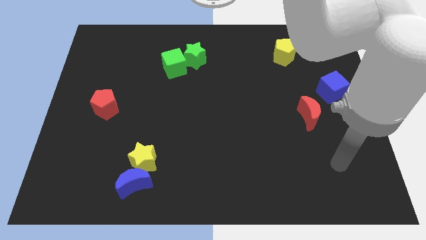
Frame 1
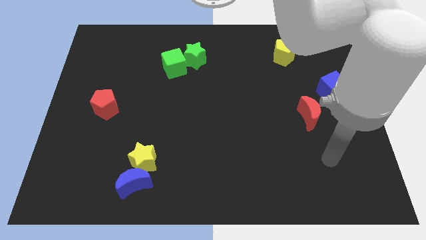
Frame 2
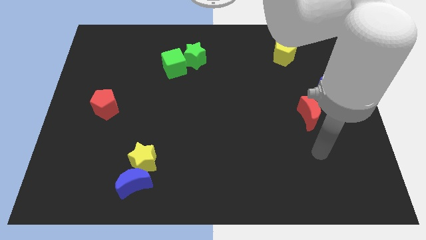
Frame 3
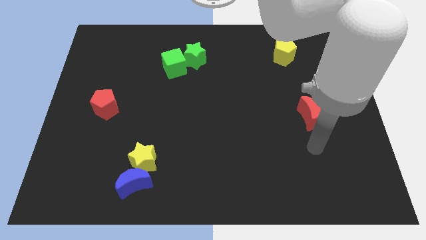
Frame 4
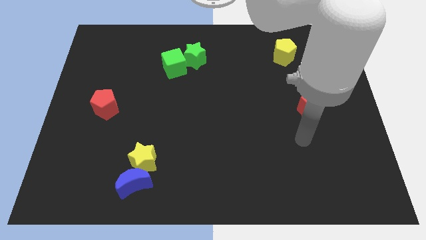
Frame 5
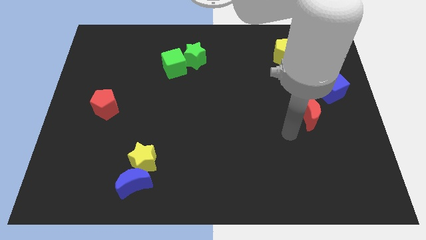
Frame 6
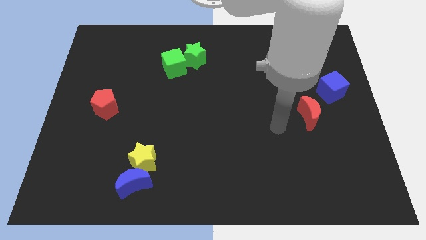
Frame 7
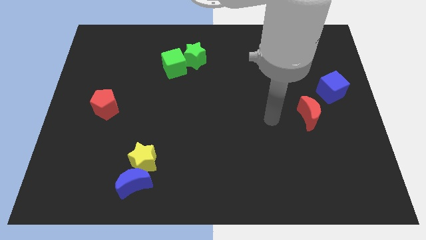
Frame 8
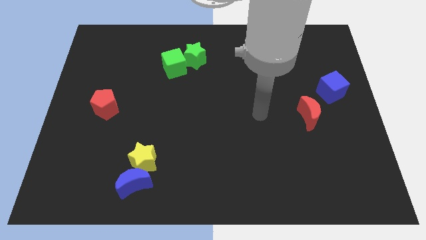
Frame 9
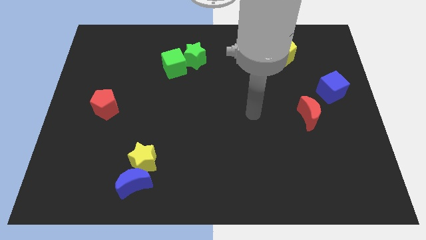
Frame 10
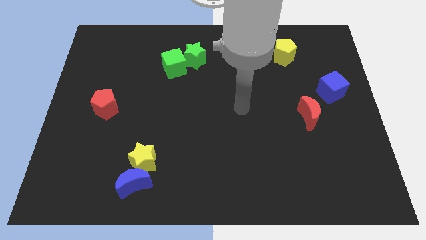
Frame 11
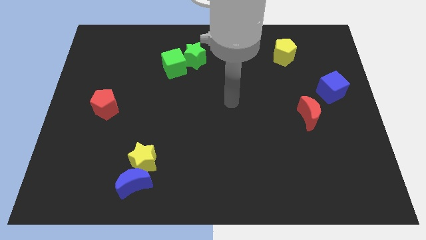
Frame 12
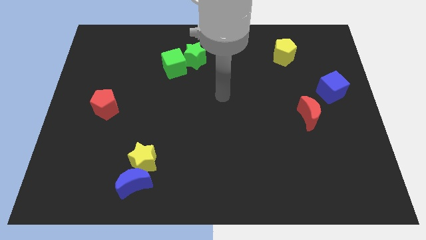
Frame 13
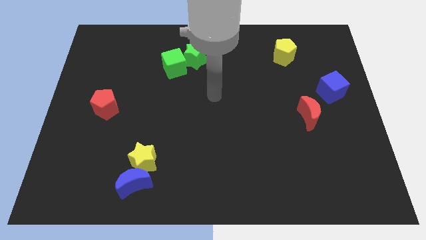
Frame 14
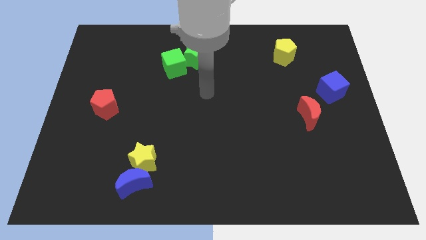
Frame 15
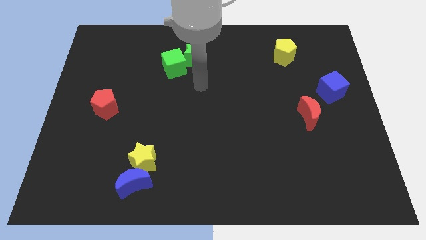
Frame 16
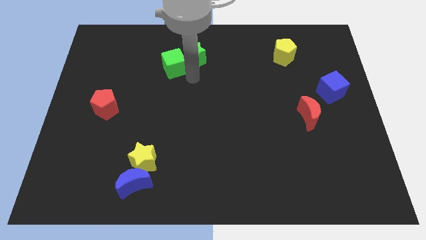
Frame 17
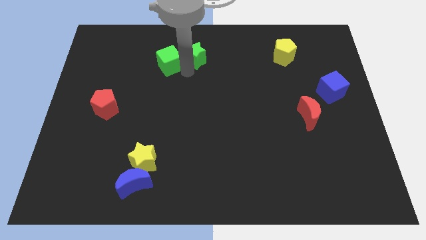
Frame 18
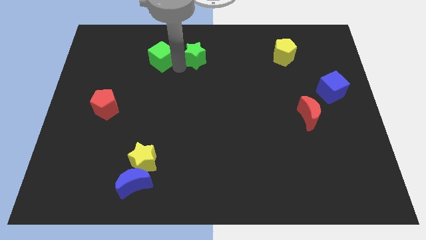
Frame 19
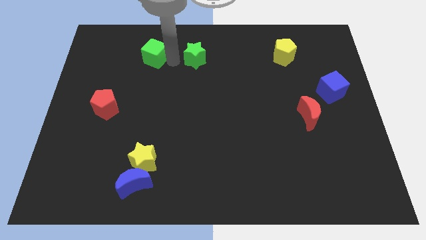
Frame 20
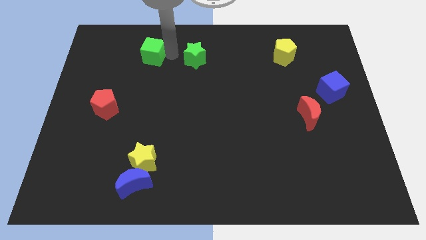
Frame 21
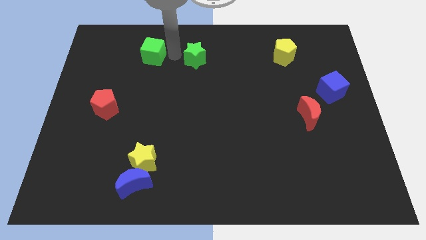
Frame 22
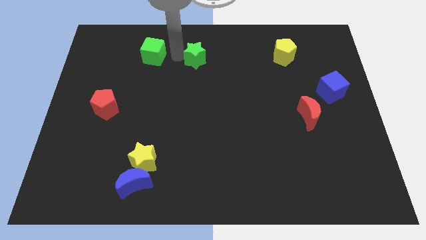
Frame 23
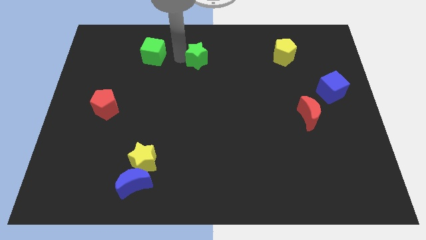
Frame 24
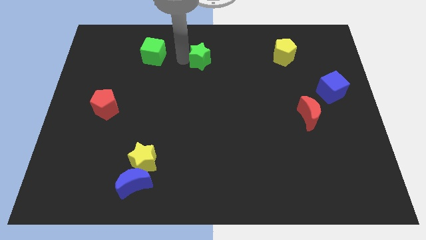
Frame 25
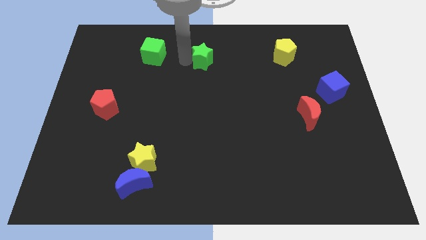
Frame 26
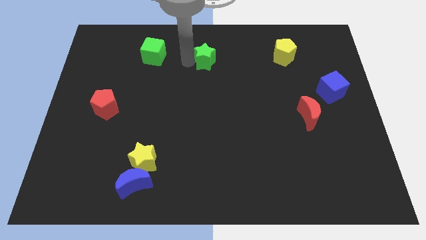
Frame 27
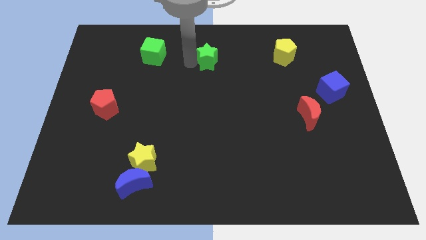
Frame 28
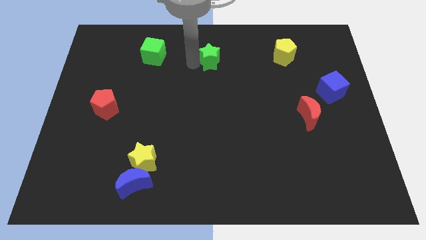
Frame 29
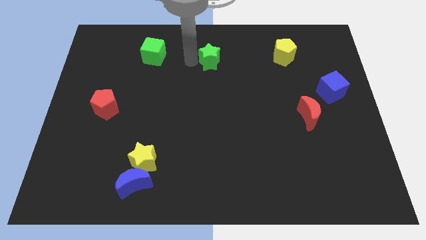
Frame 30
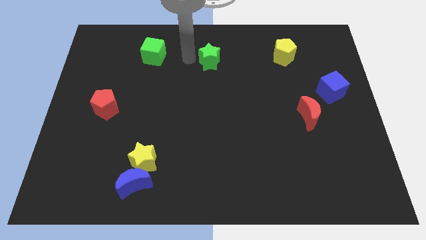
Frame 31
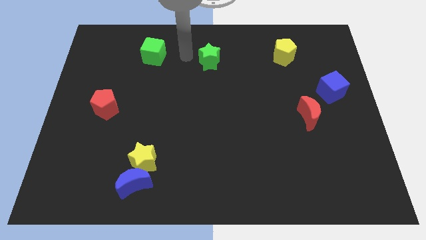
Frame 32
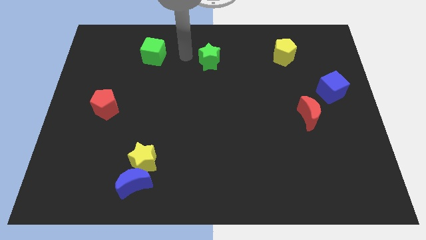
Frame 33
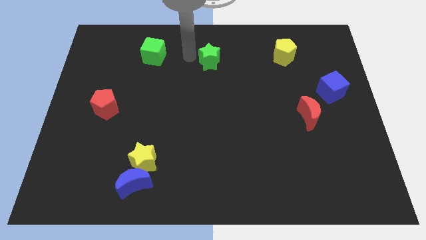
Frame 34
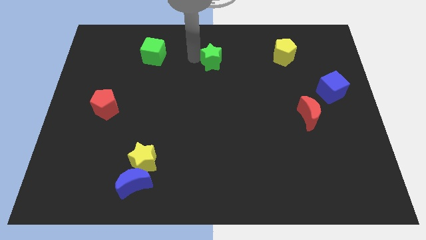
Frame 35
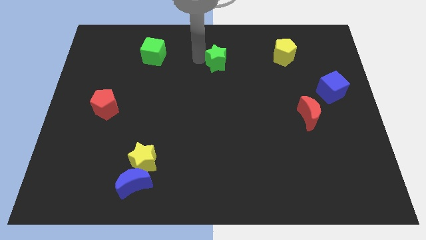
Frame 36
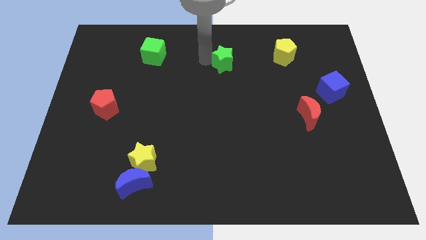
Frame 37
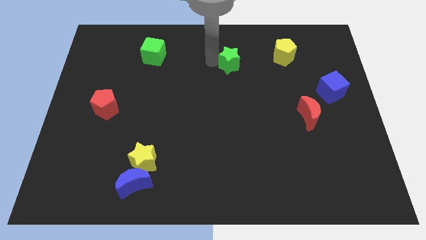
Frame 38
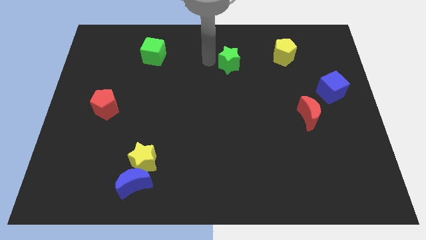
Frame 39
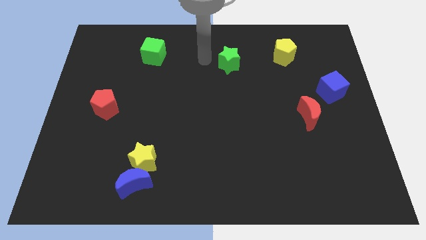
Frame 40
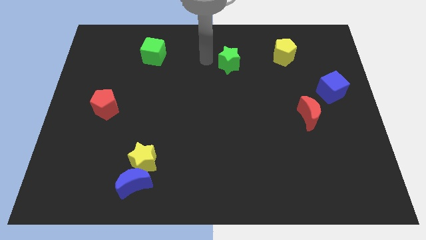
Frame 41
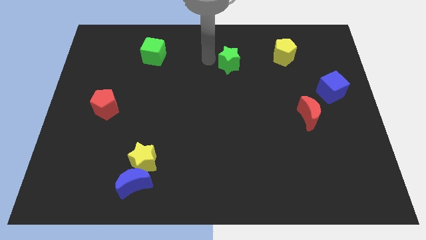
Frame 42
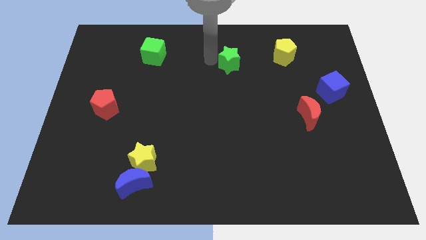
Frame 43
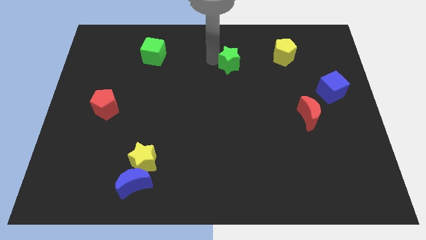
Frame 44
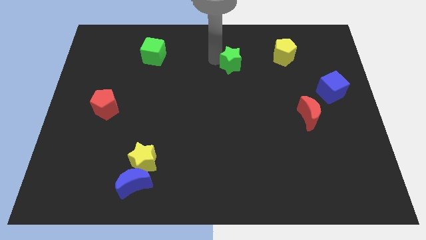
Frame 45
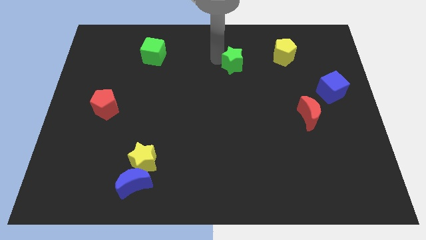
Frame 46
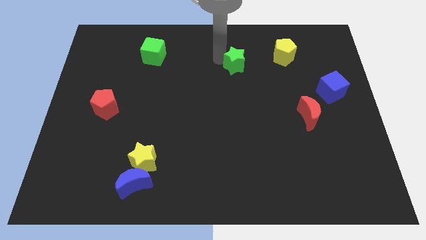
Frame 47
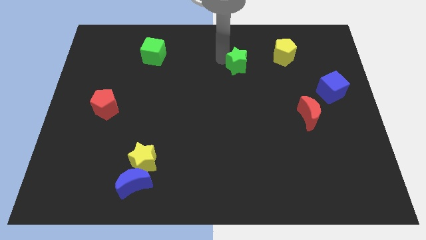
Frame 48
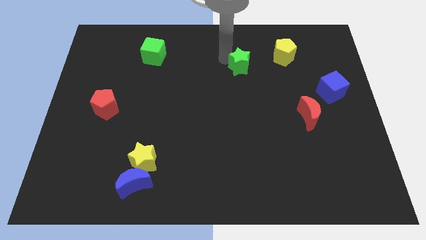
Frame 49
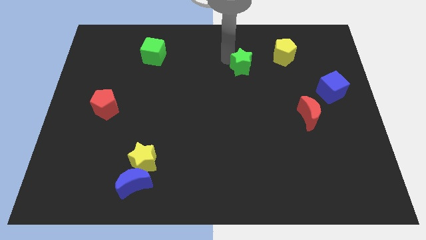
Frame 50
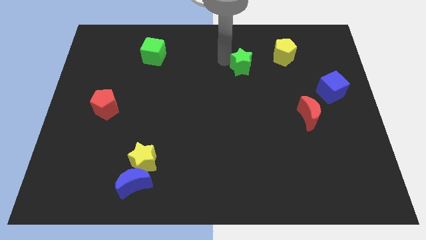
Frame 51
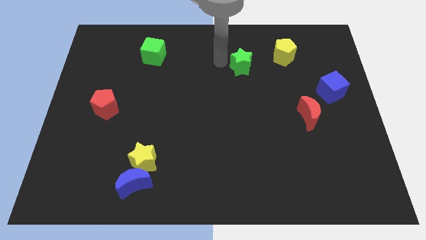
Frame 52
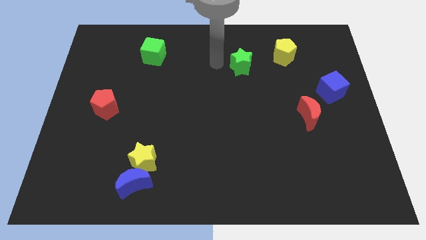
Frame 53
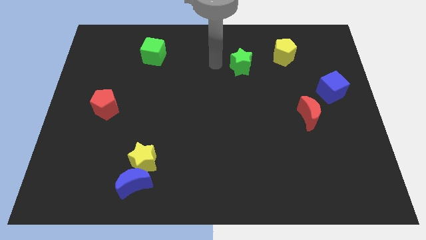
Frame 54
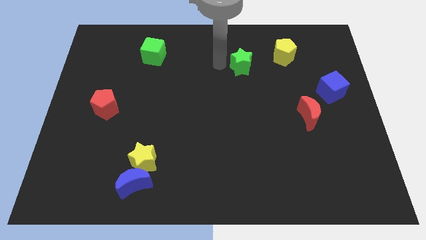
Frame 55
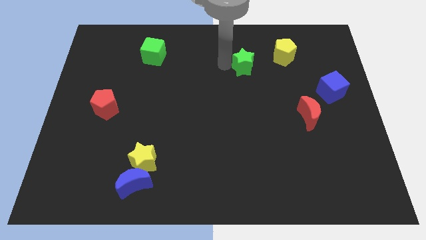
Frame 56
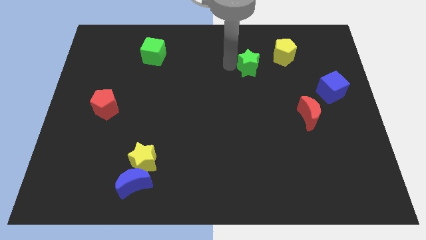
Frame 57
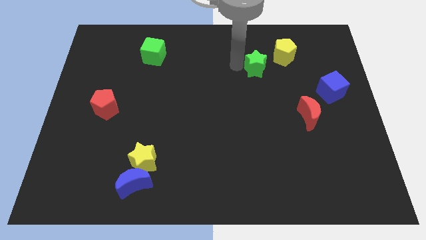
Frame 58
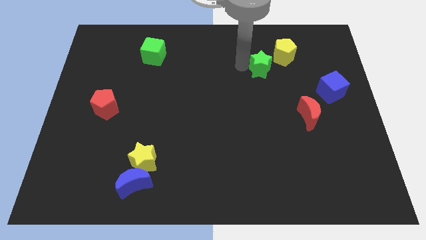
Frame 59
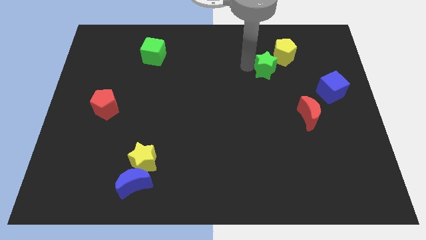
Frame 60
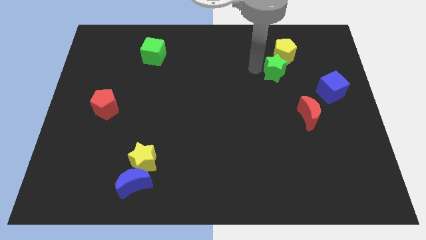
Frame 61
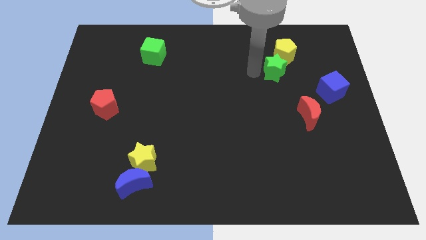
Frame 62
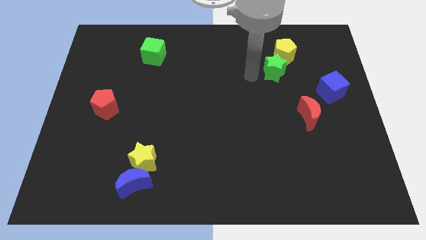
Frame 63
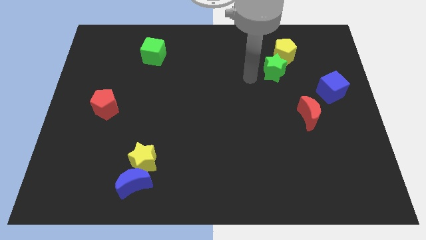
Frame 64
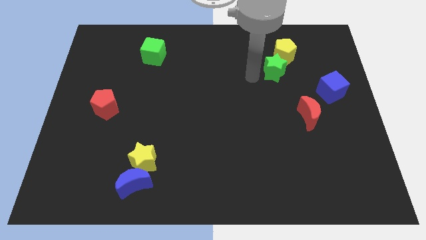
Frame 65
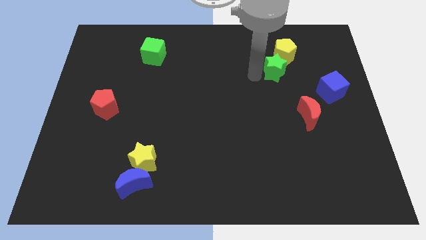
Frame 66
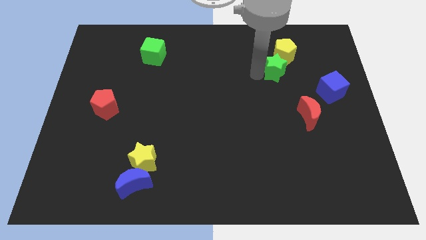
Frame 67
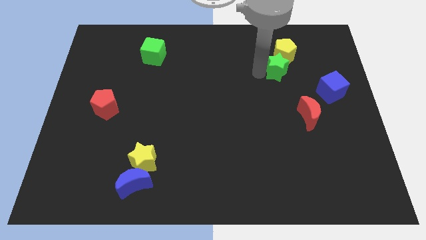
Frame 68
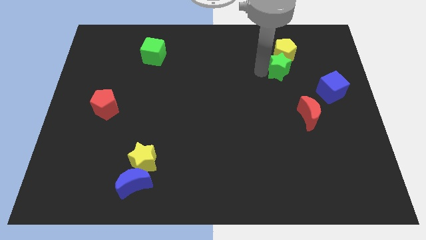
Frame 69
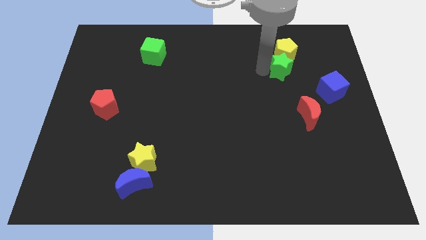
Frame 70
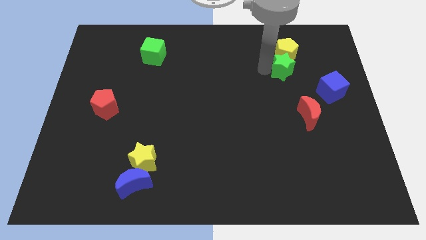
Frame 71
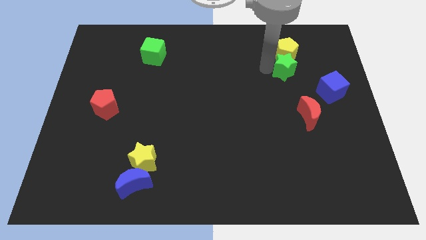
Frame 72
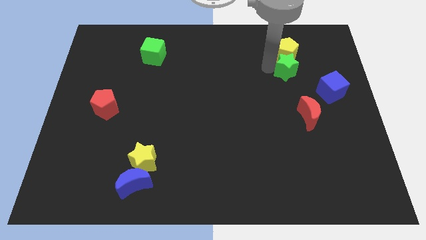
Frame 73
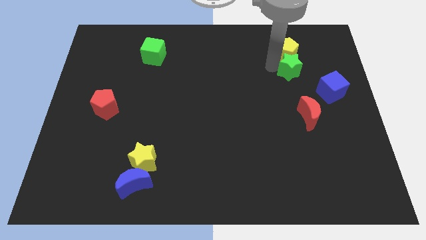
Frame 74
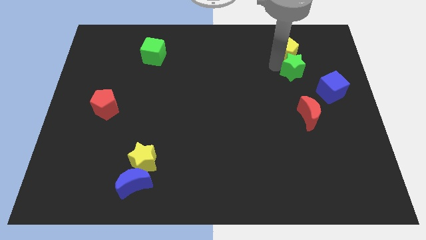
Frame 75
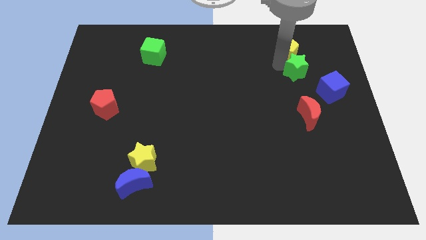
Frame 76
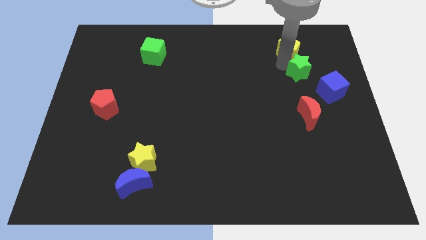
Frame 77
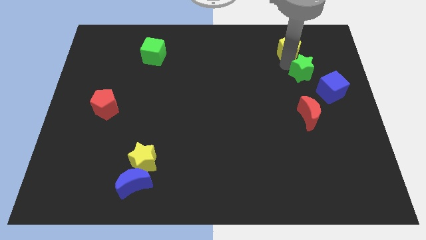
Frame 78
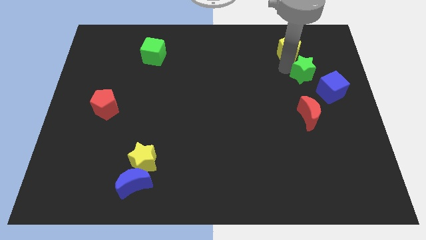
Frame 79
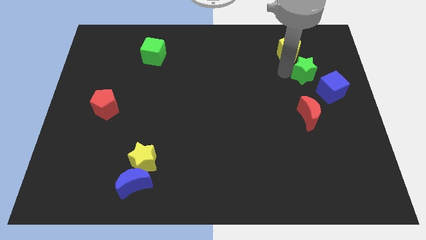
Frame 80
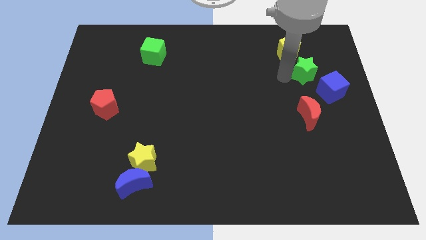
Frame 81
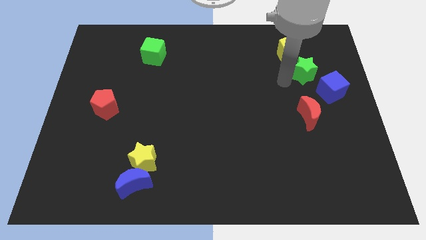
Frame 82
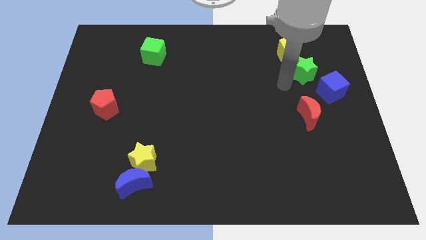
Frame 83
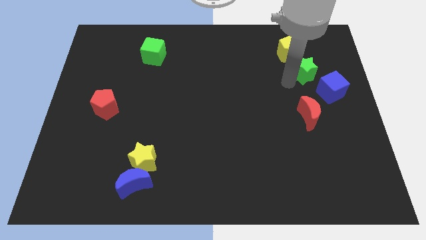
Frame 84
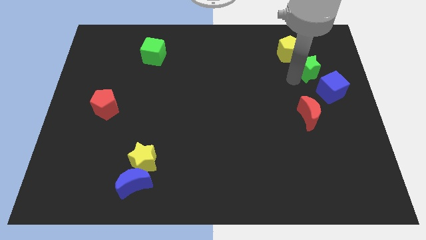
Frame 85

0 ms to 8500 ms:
push the green star to the top side of the blue cube
